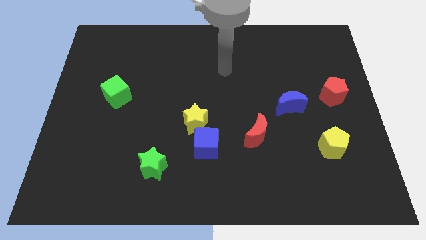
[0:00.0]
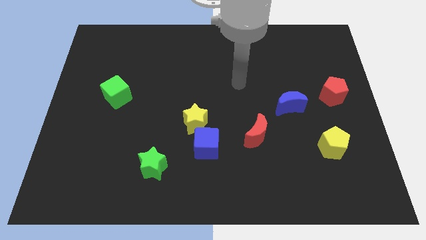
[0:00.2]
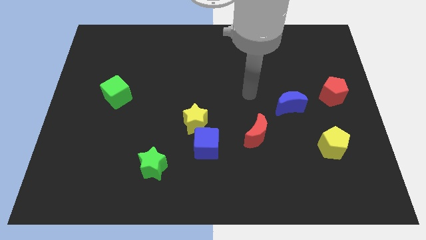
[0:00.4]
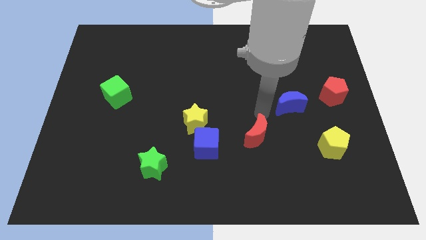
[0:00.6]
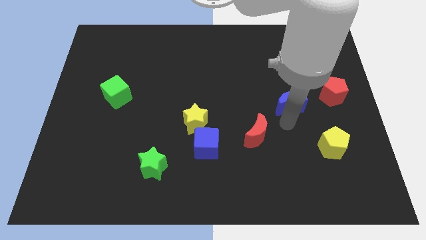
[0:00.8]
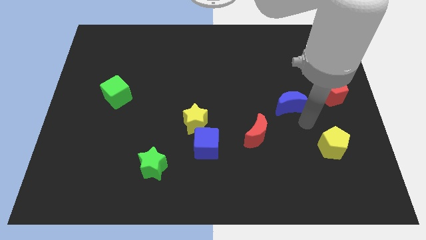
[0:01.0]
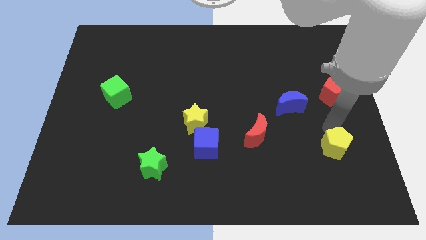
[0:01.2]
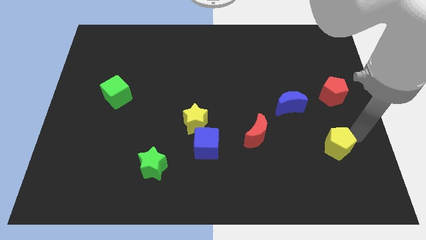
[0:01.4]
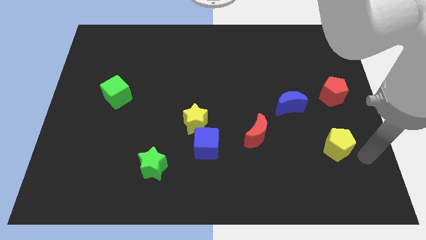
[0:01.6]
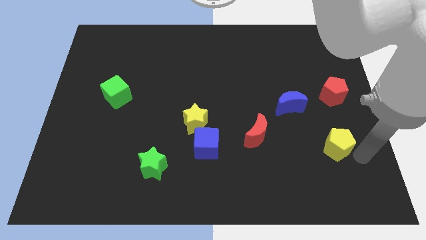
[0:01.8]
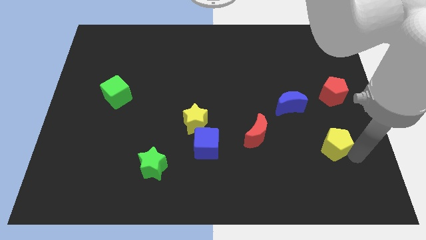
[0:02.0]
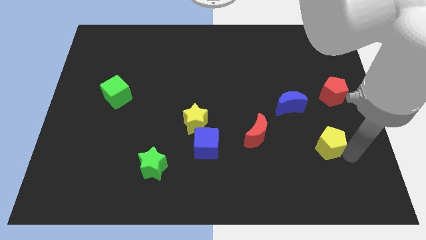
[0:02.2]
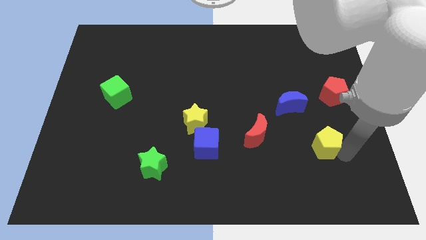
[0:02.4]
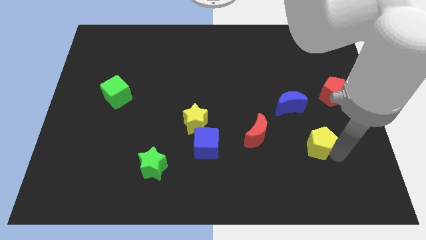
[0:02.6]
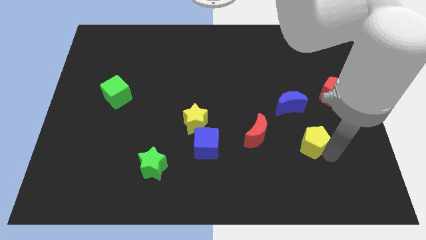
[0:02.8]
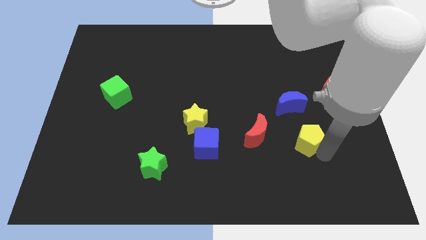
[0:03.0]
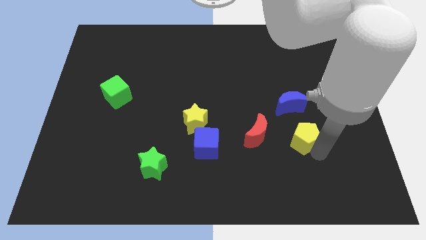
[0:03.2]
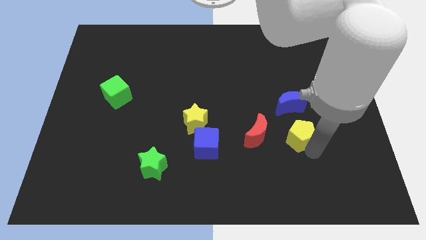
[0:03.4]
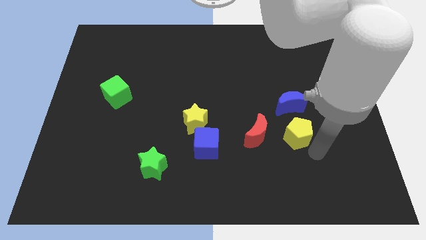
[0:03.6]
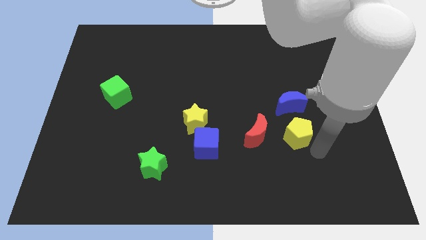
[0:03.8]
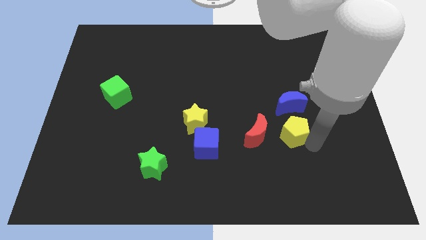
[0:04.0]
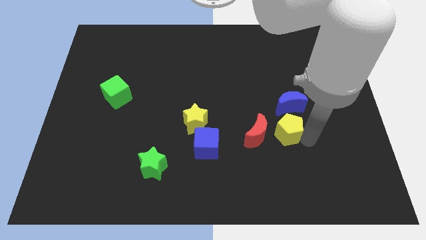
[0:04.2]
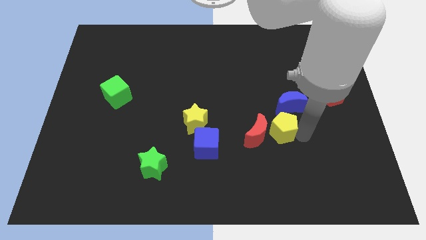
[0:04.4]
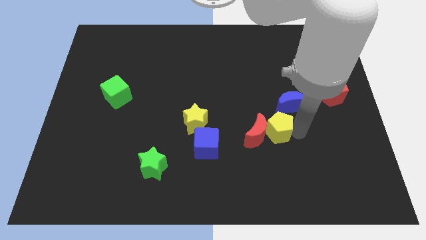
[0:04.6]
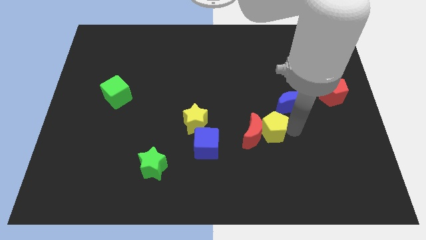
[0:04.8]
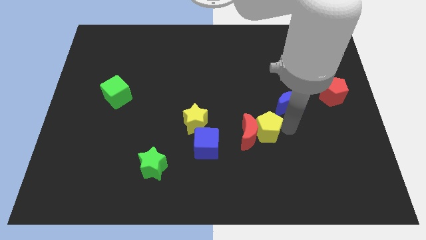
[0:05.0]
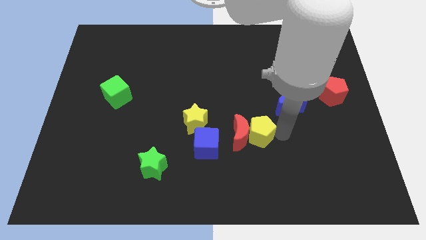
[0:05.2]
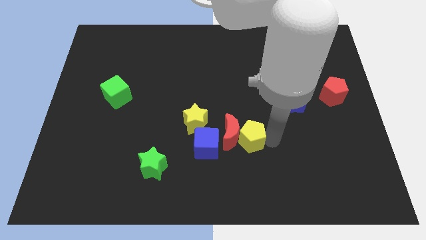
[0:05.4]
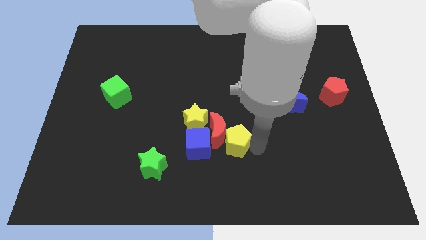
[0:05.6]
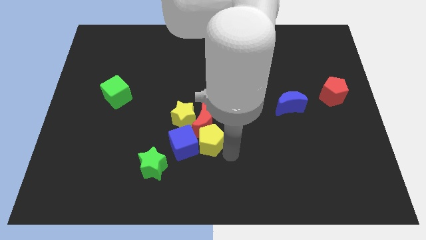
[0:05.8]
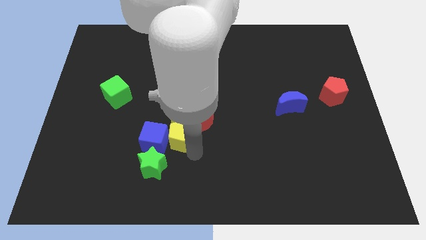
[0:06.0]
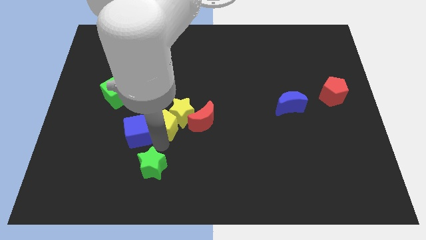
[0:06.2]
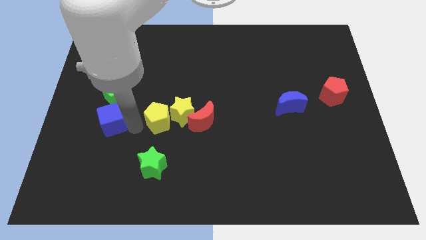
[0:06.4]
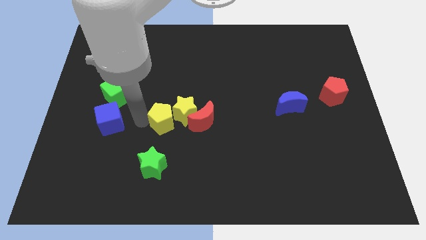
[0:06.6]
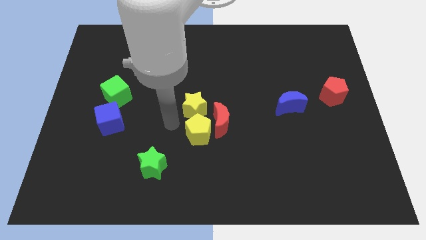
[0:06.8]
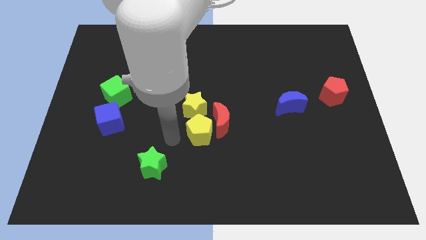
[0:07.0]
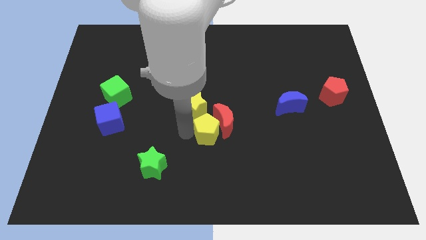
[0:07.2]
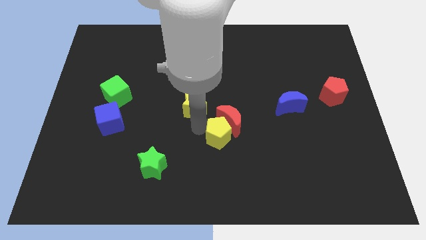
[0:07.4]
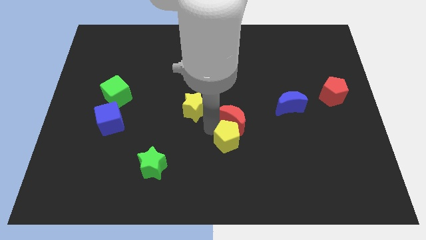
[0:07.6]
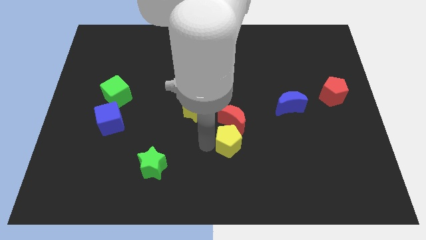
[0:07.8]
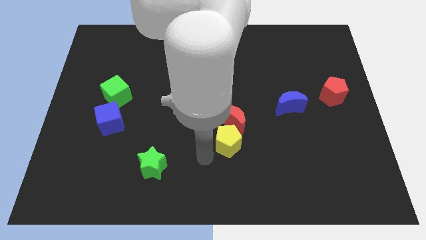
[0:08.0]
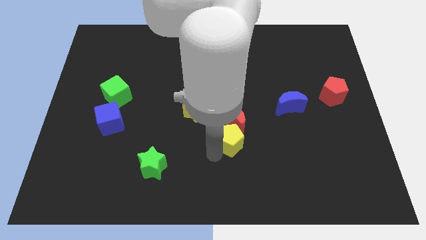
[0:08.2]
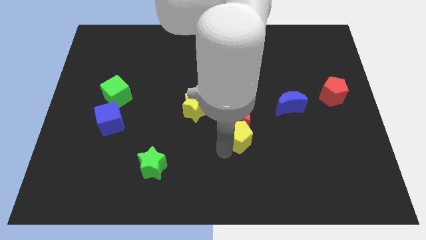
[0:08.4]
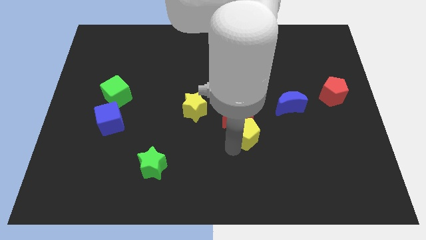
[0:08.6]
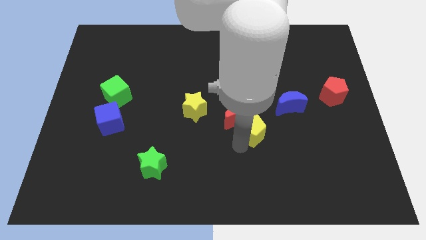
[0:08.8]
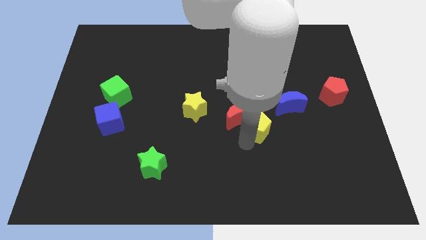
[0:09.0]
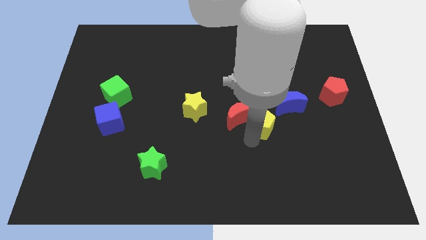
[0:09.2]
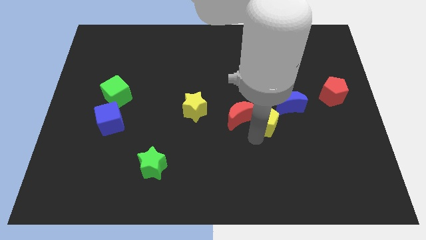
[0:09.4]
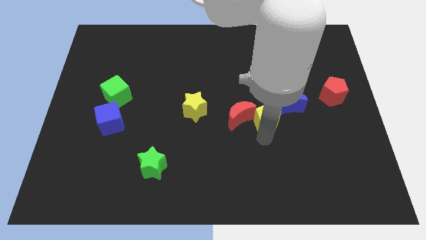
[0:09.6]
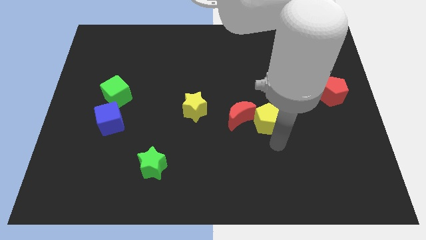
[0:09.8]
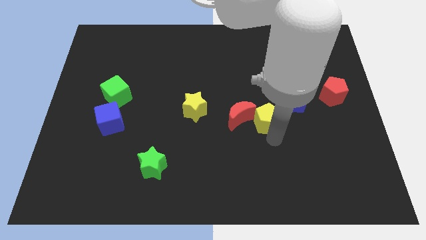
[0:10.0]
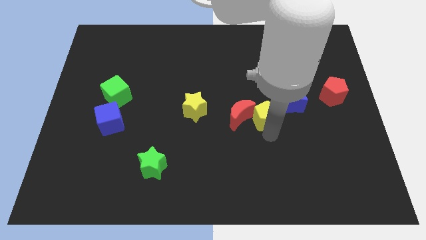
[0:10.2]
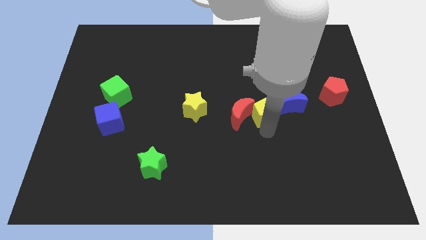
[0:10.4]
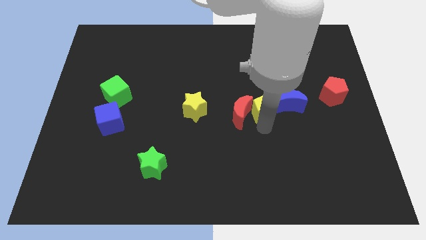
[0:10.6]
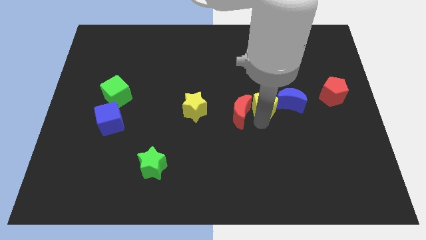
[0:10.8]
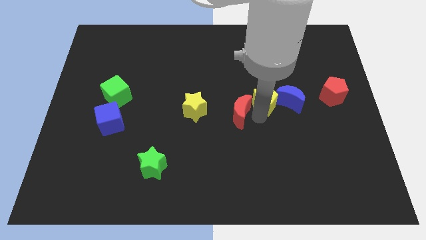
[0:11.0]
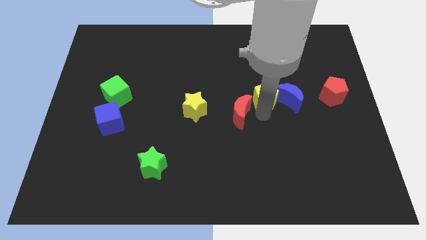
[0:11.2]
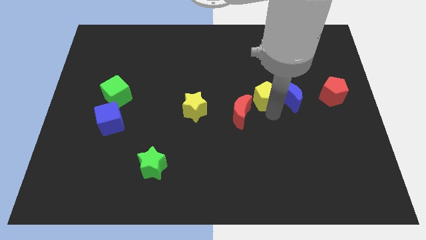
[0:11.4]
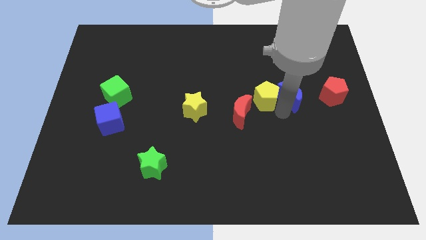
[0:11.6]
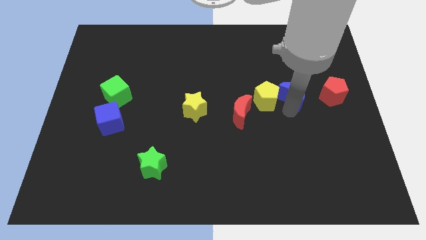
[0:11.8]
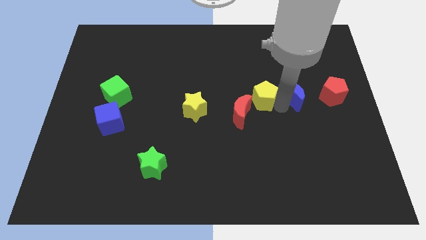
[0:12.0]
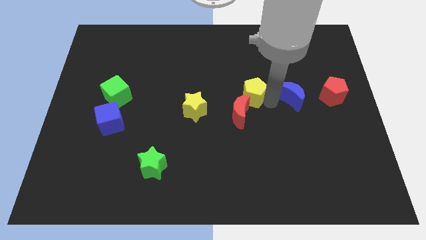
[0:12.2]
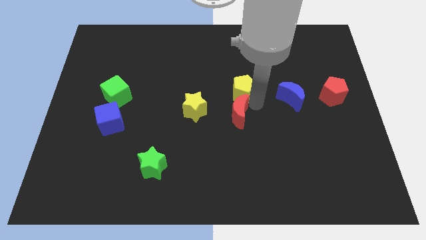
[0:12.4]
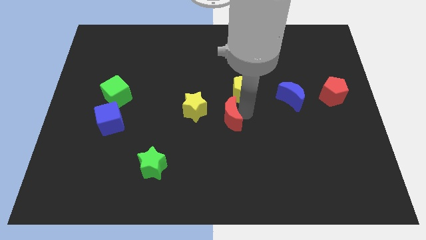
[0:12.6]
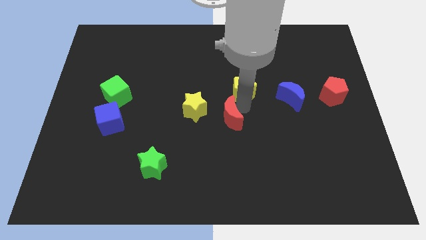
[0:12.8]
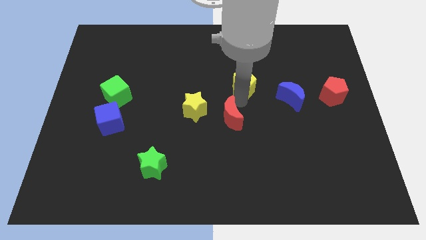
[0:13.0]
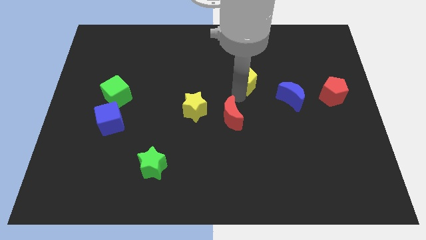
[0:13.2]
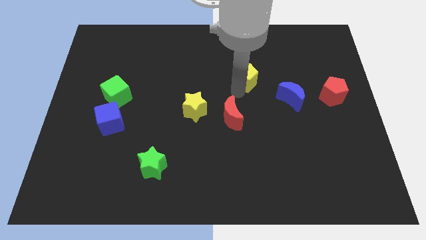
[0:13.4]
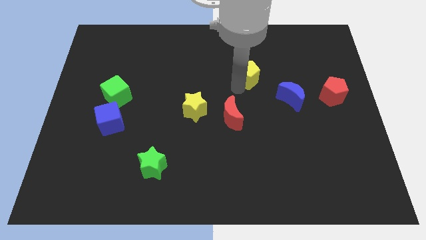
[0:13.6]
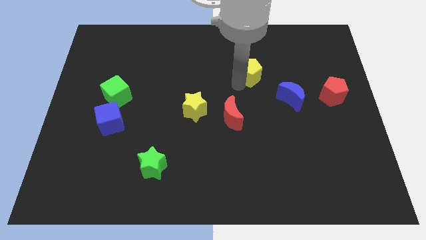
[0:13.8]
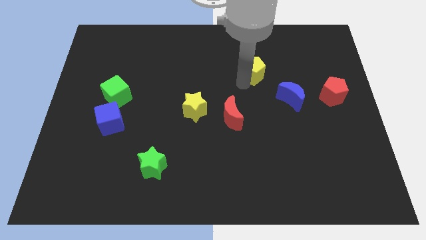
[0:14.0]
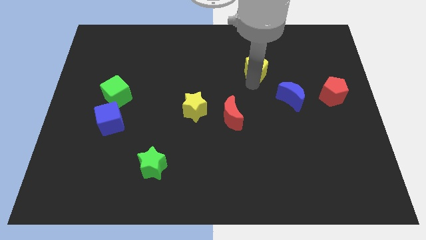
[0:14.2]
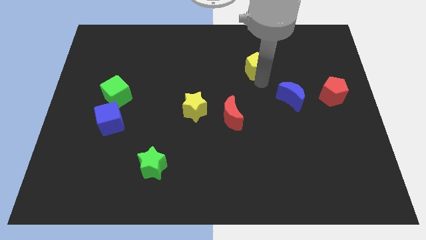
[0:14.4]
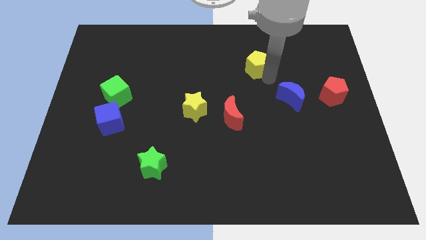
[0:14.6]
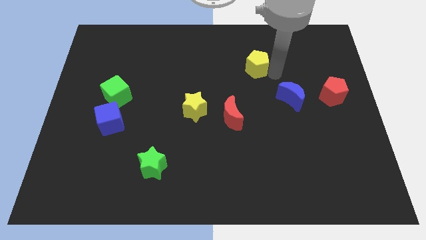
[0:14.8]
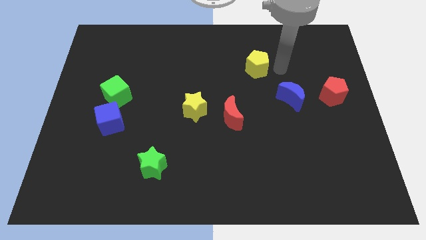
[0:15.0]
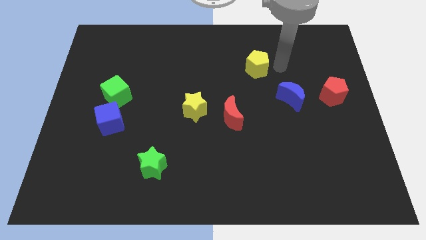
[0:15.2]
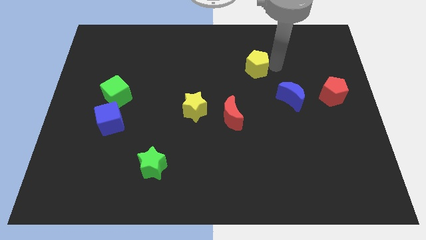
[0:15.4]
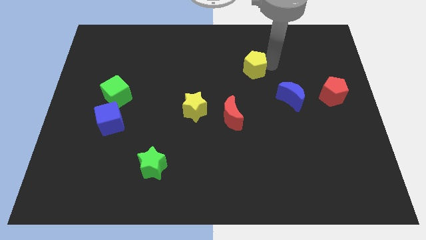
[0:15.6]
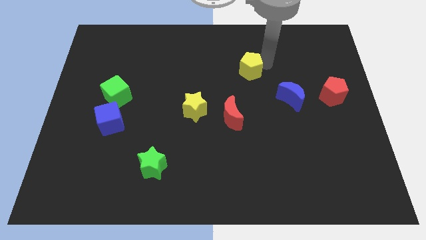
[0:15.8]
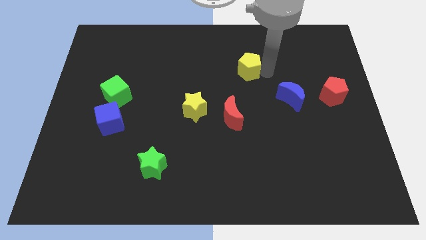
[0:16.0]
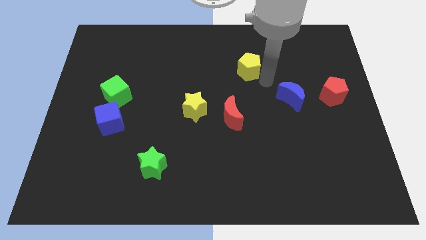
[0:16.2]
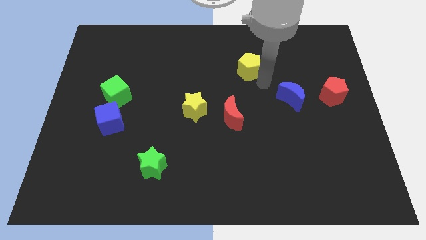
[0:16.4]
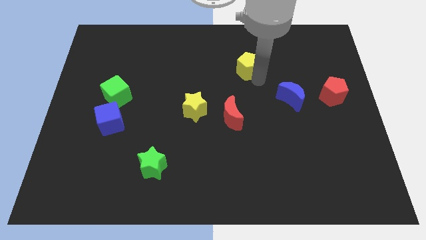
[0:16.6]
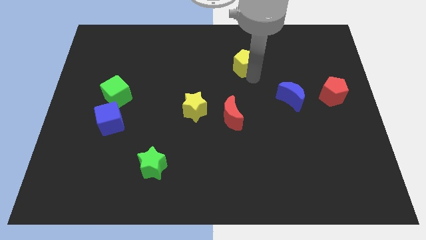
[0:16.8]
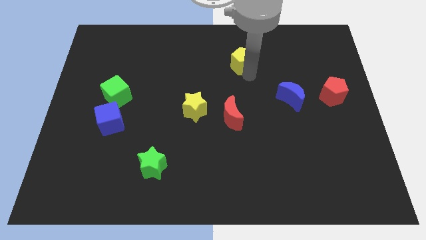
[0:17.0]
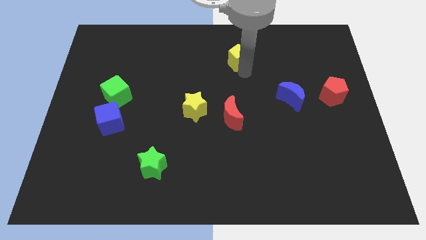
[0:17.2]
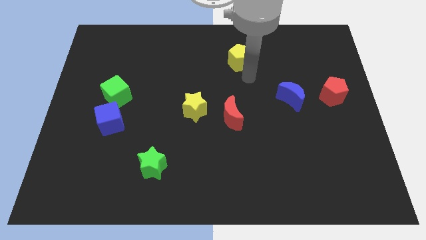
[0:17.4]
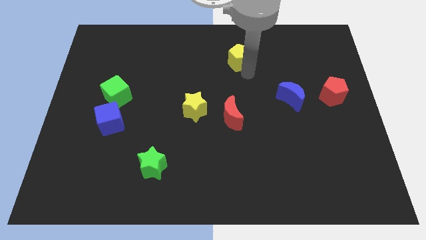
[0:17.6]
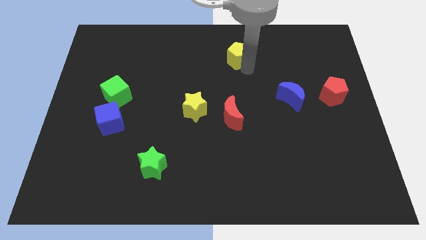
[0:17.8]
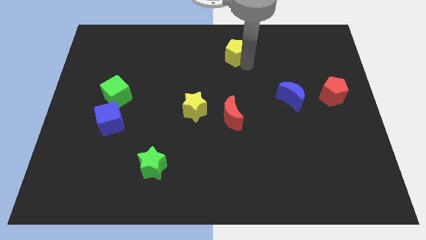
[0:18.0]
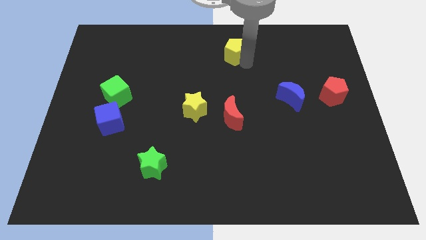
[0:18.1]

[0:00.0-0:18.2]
move the yellow pentagon to the towards your base
